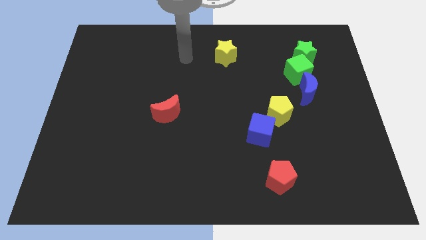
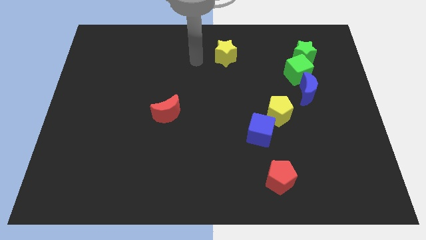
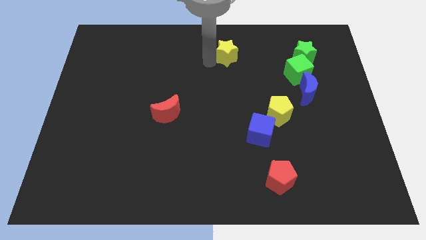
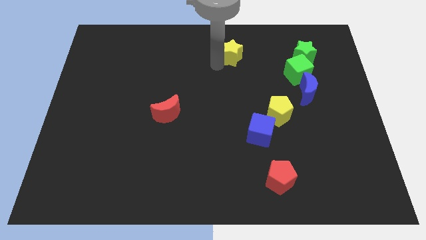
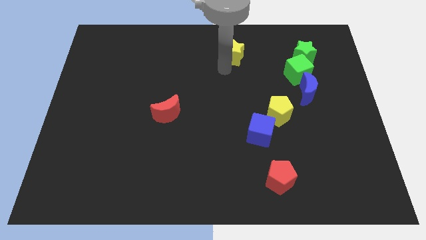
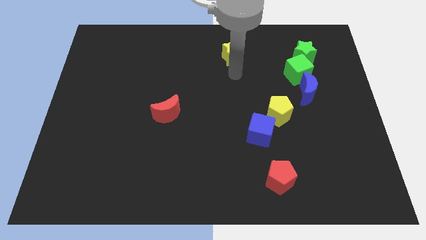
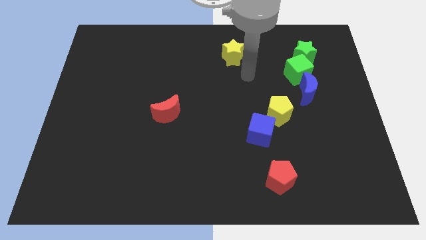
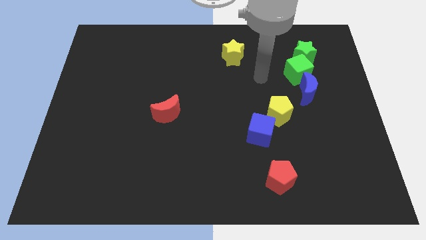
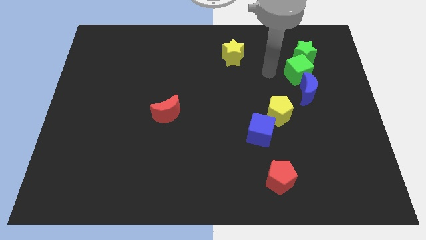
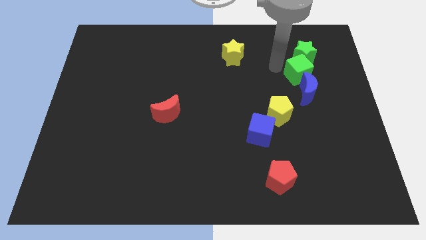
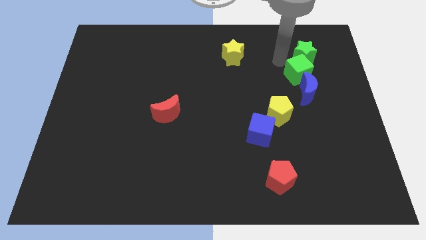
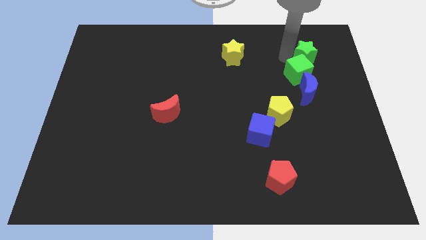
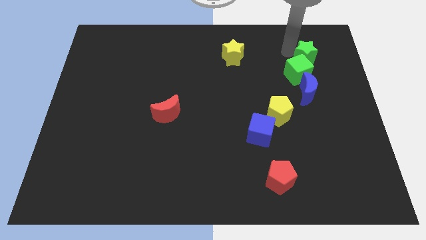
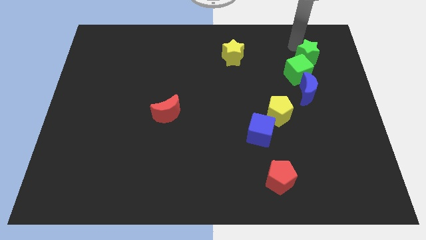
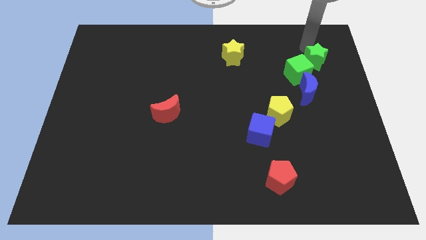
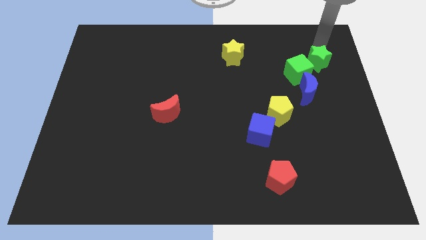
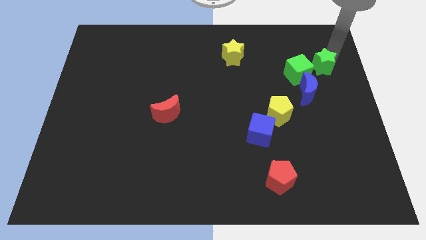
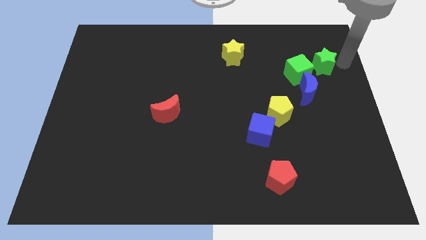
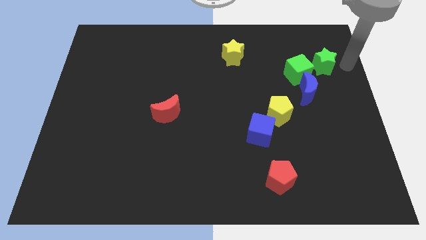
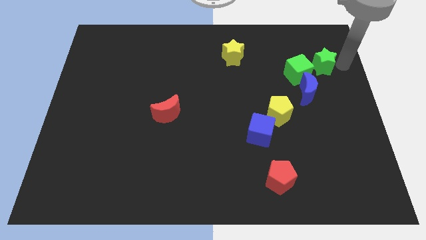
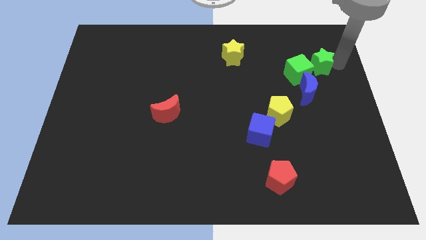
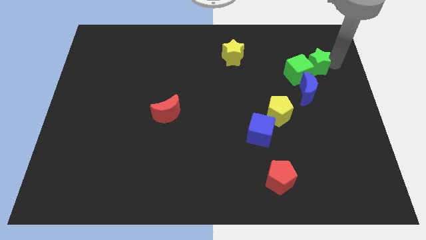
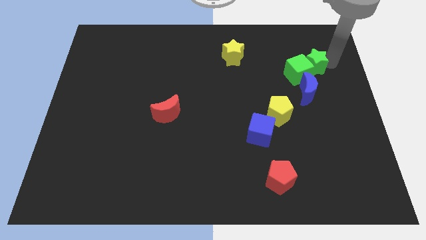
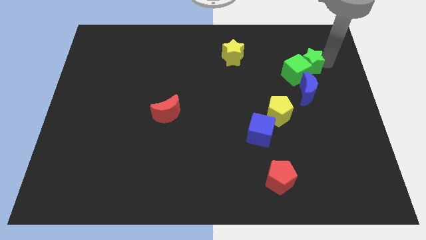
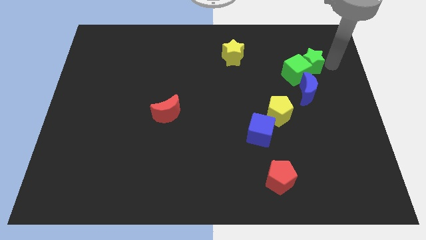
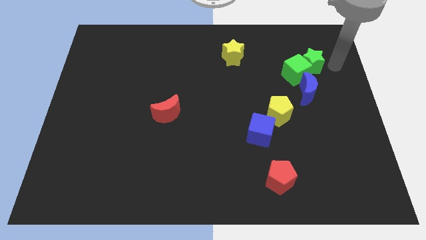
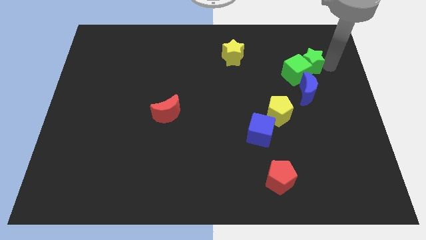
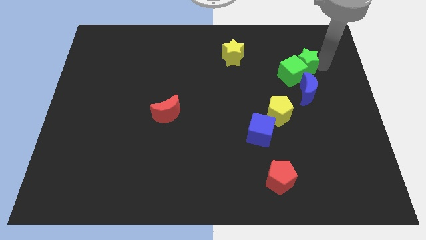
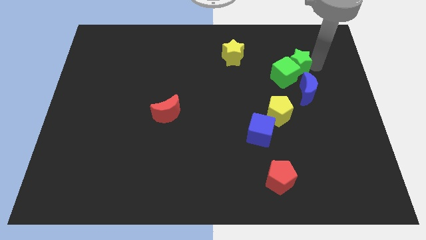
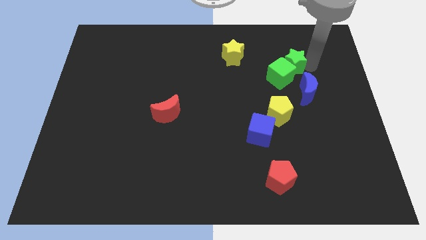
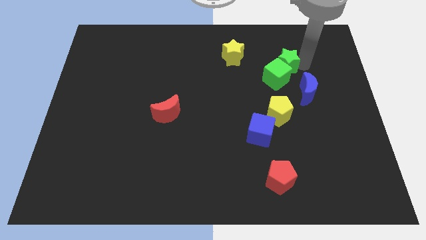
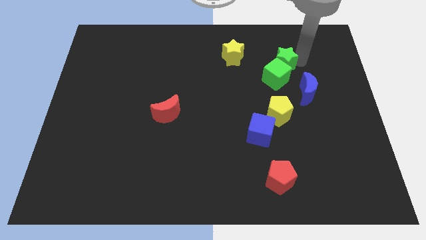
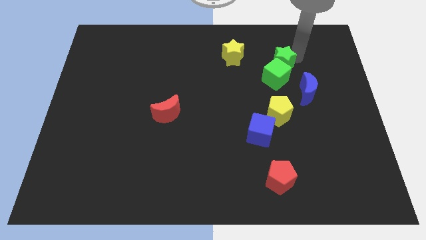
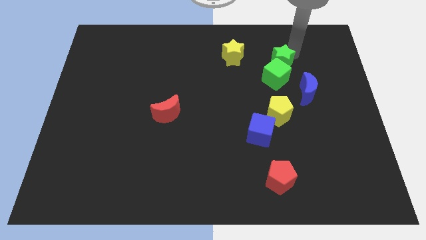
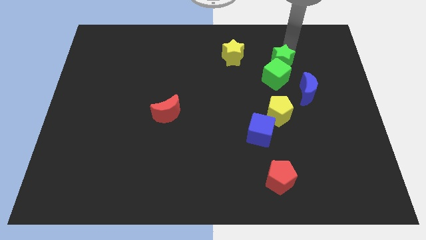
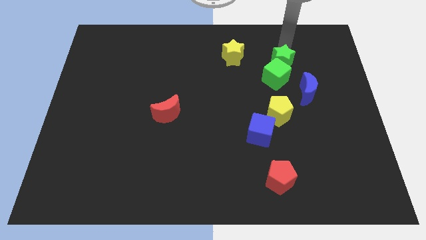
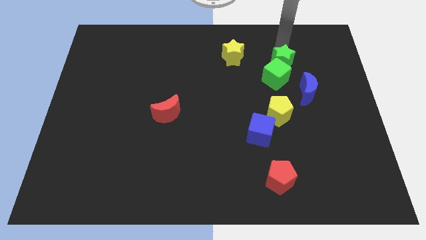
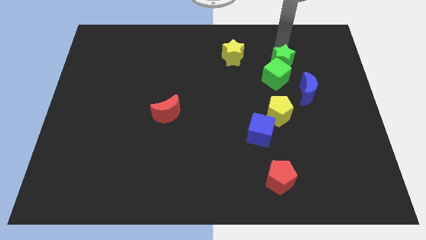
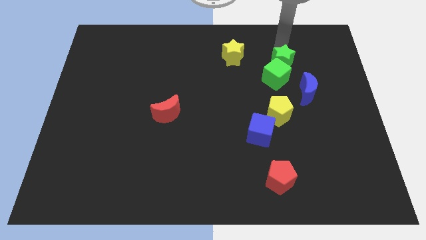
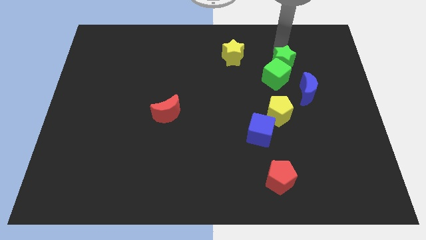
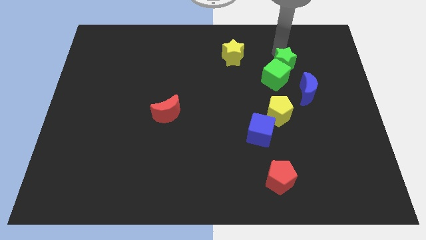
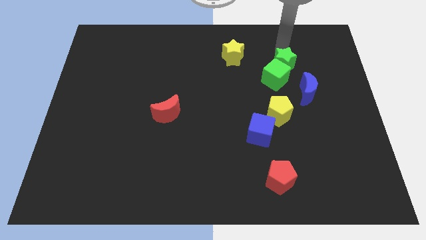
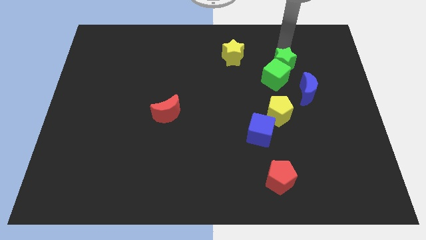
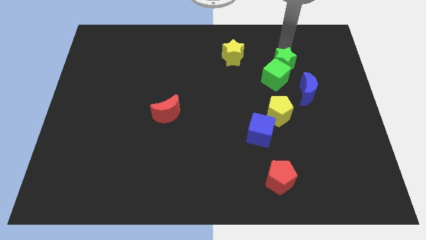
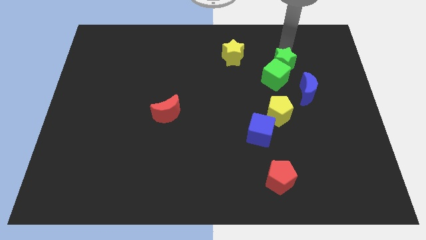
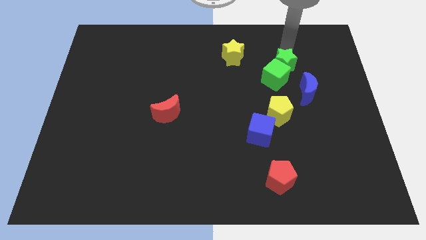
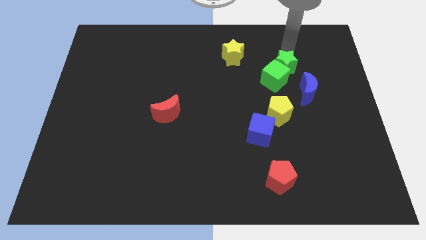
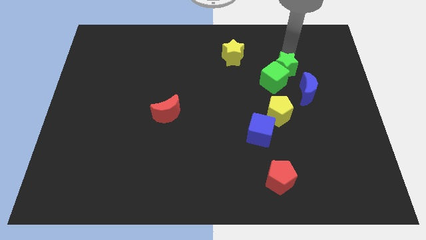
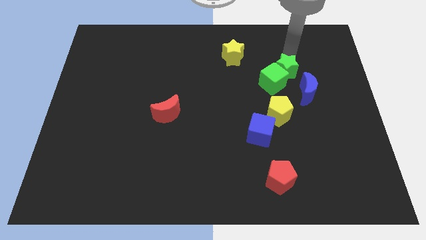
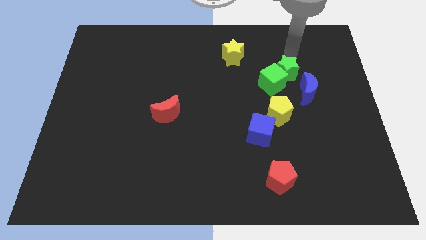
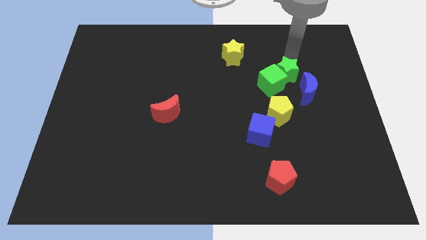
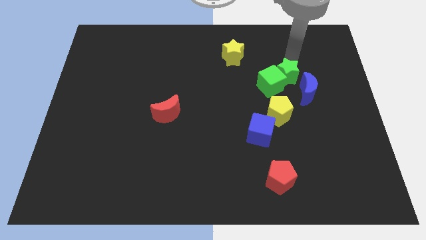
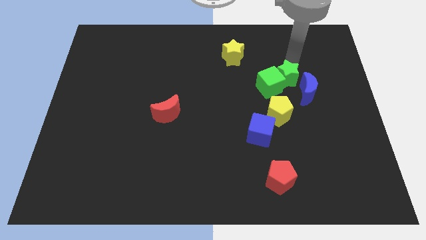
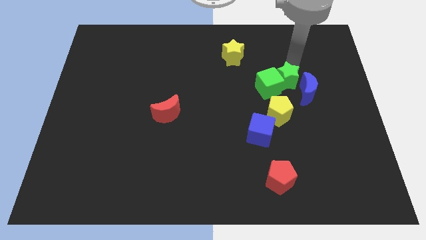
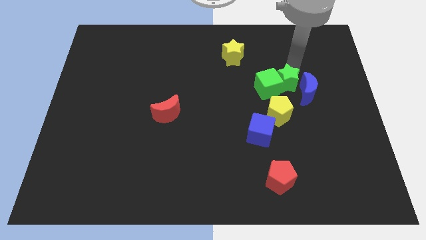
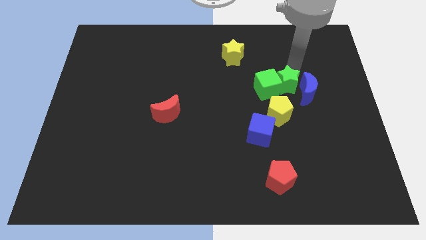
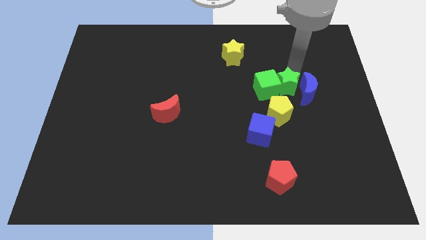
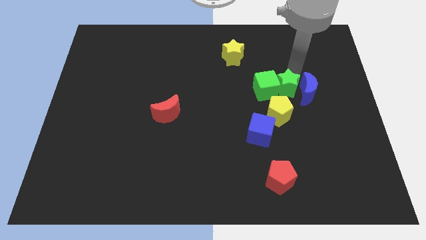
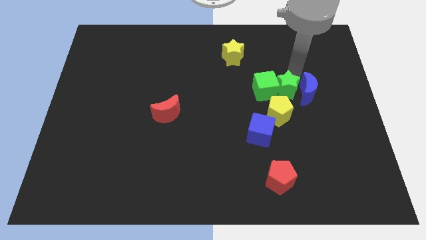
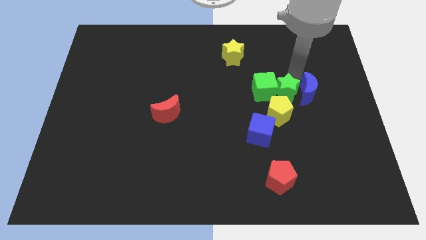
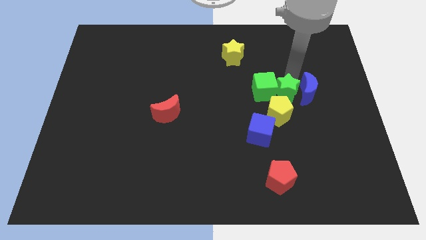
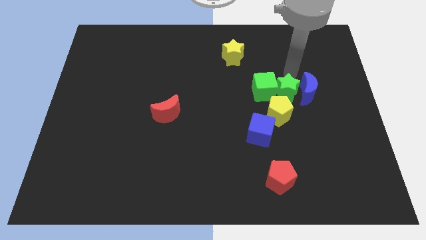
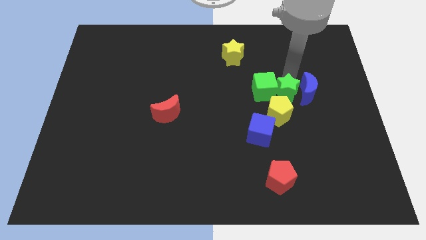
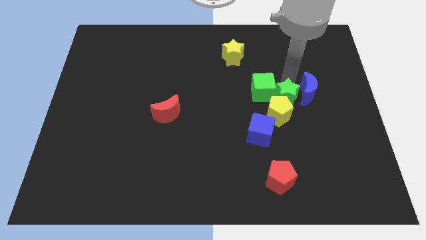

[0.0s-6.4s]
push the green star to the yellow pentagon
